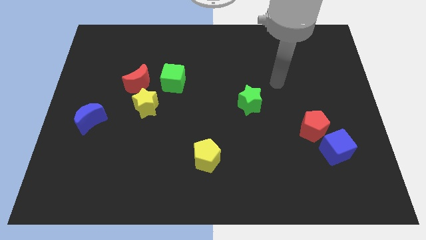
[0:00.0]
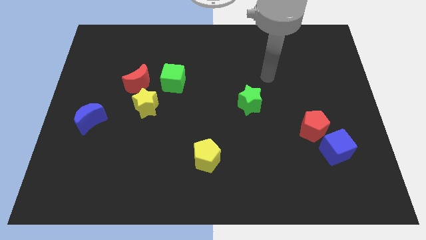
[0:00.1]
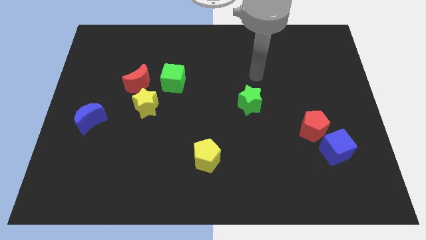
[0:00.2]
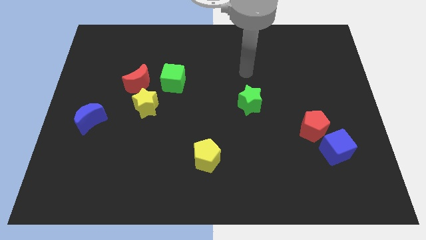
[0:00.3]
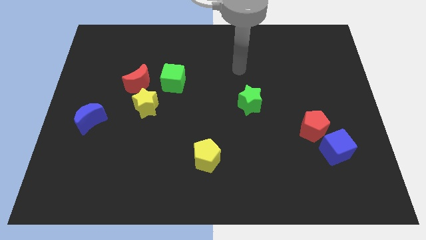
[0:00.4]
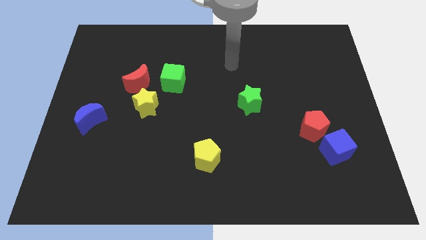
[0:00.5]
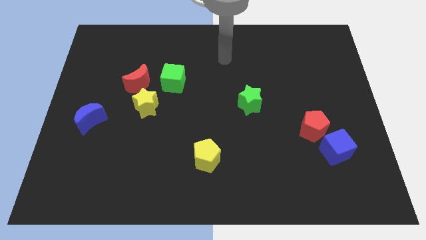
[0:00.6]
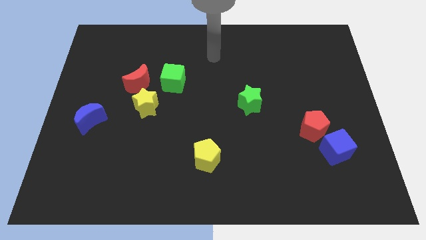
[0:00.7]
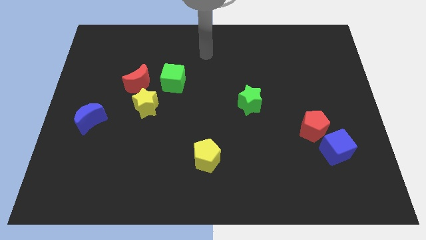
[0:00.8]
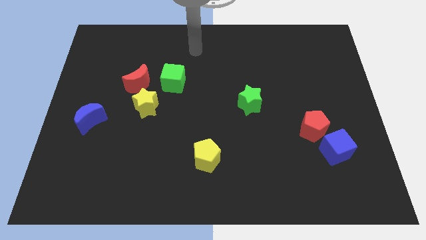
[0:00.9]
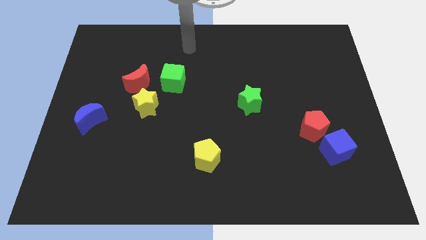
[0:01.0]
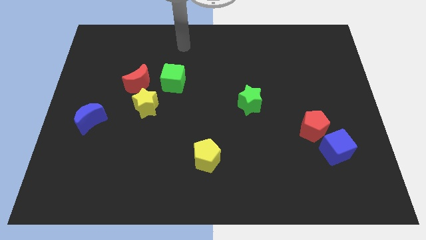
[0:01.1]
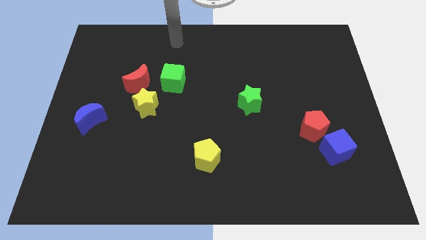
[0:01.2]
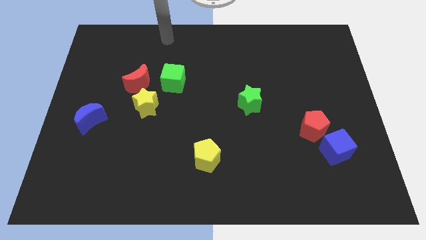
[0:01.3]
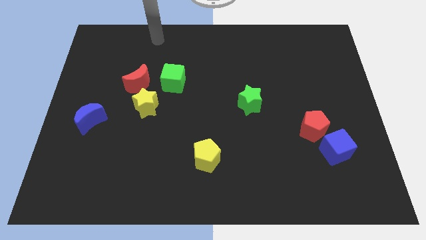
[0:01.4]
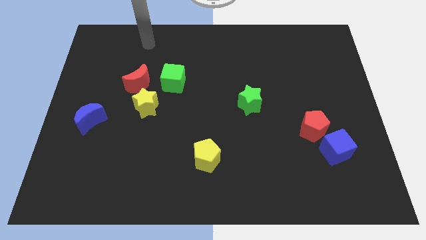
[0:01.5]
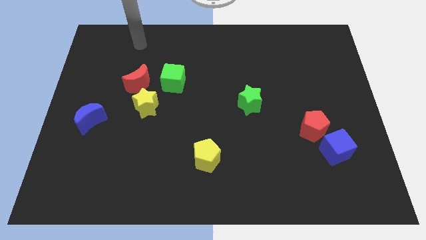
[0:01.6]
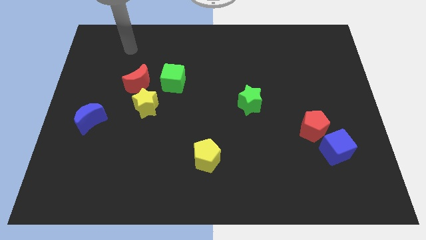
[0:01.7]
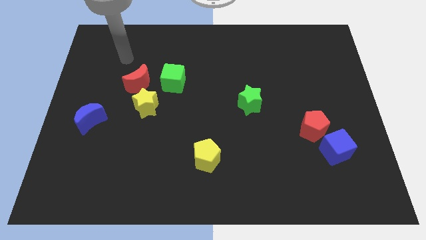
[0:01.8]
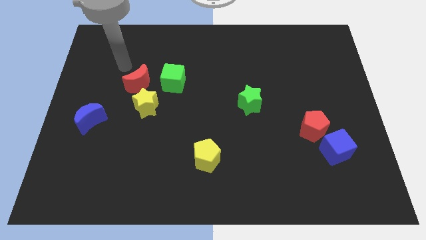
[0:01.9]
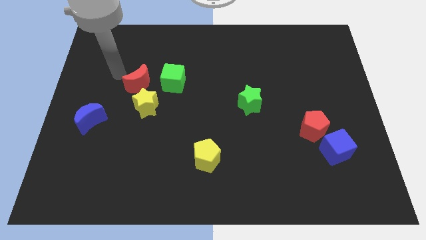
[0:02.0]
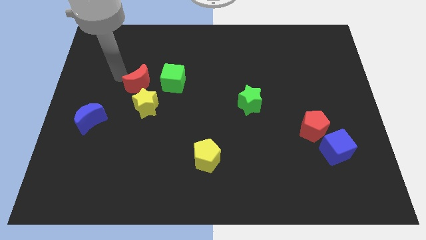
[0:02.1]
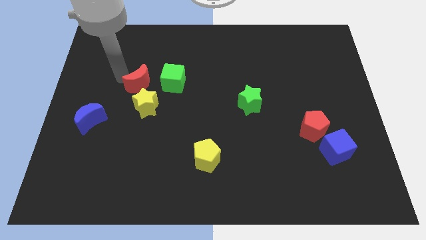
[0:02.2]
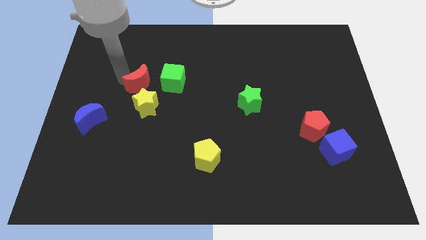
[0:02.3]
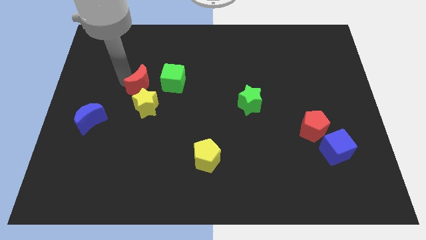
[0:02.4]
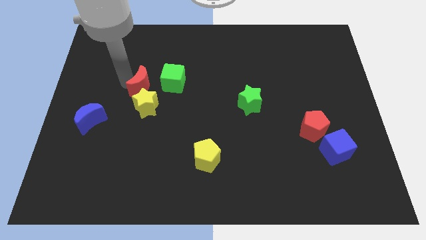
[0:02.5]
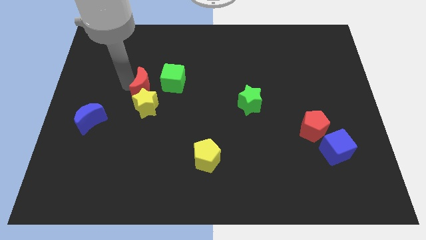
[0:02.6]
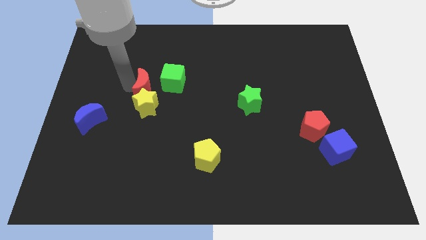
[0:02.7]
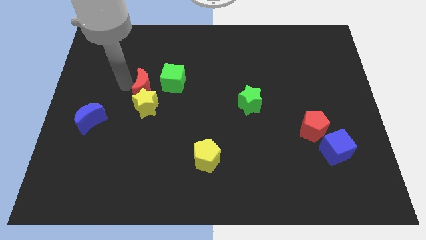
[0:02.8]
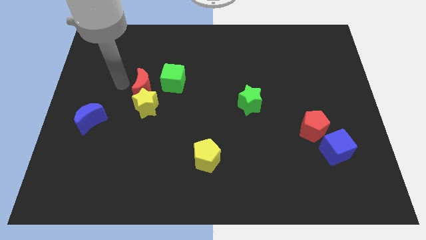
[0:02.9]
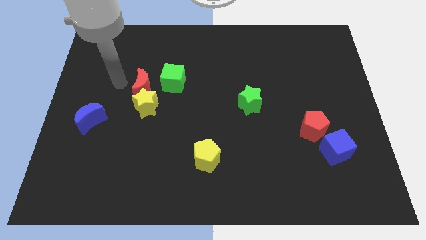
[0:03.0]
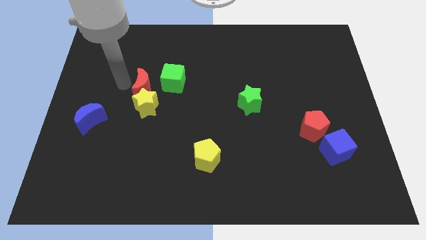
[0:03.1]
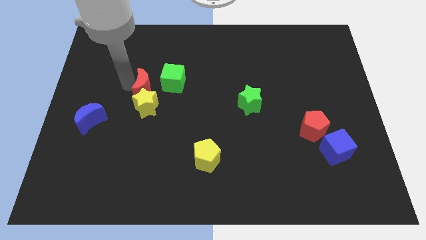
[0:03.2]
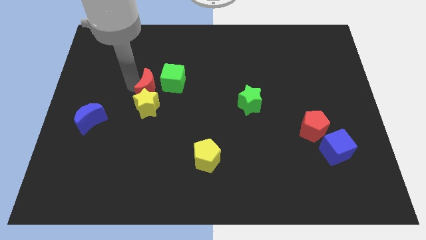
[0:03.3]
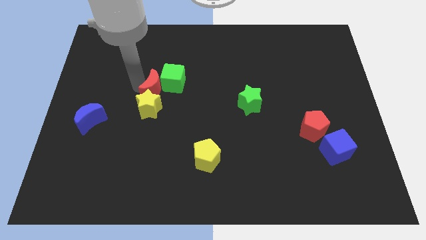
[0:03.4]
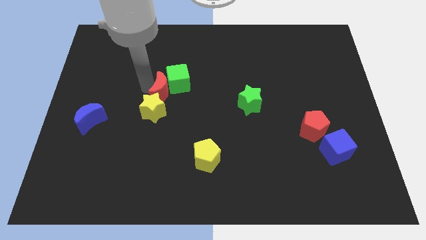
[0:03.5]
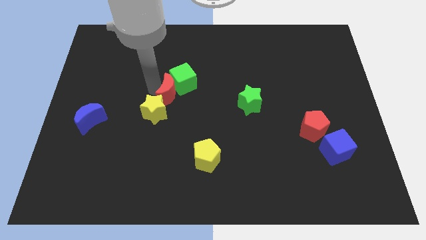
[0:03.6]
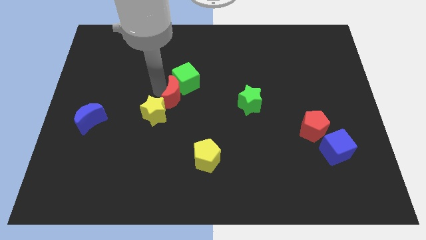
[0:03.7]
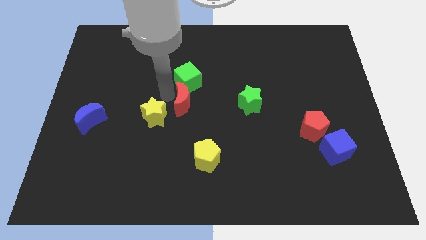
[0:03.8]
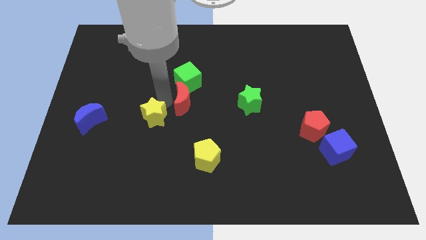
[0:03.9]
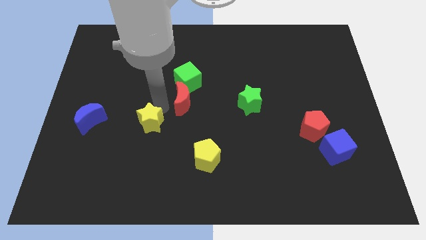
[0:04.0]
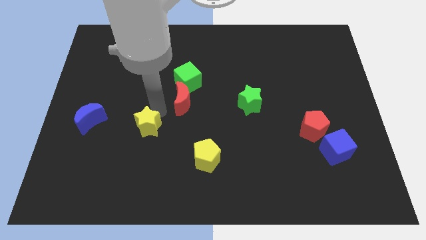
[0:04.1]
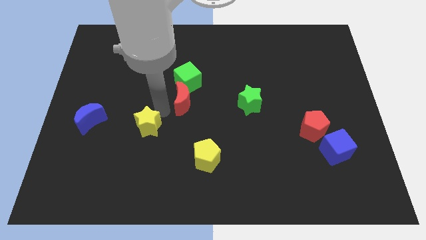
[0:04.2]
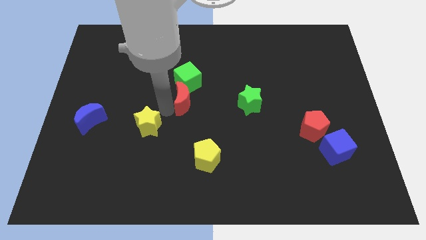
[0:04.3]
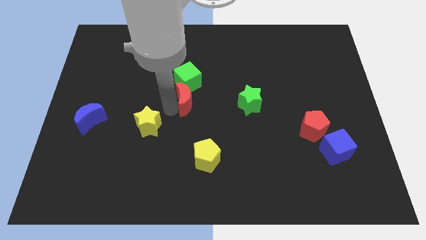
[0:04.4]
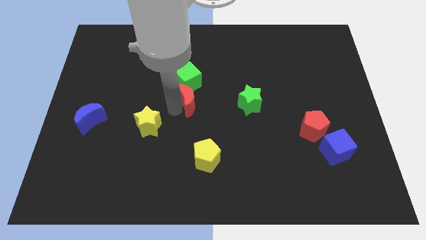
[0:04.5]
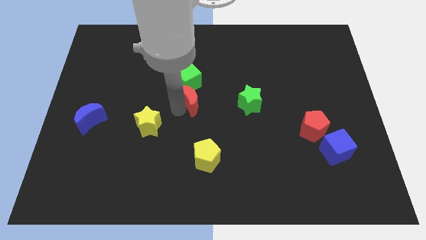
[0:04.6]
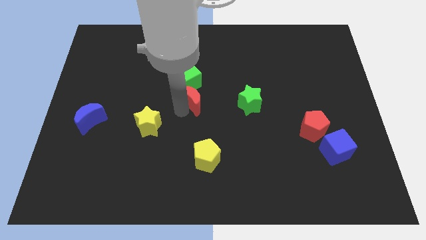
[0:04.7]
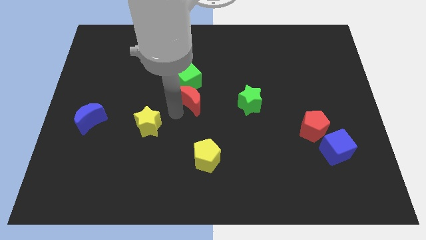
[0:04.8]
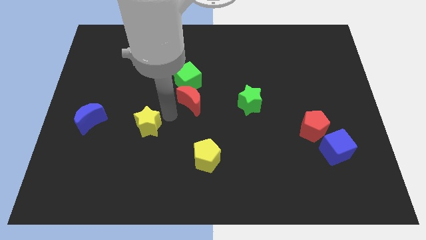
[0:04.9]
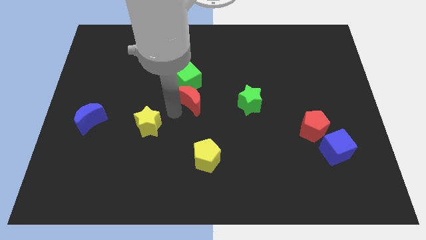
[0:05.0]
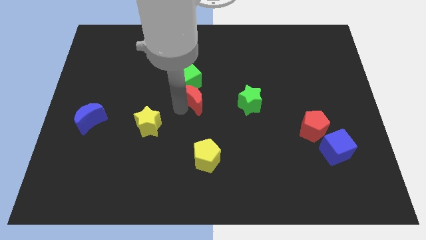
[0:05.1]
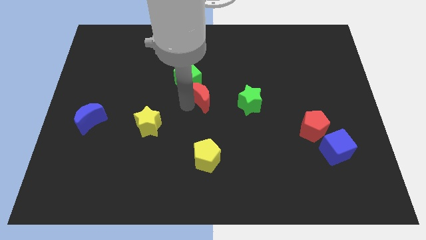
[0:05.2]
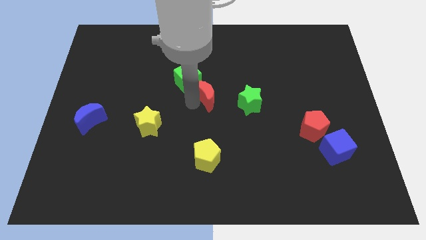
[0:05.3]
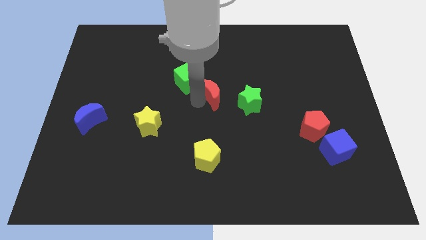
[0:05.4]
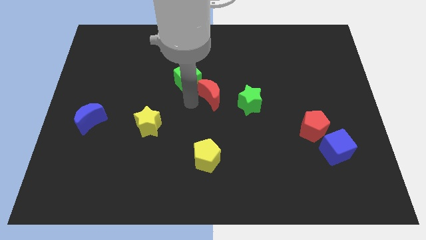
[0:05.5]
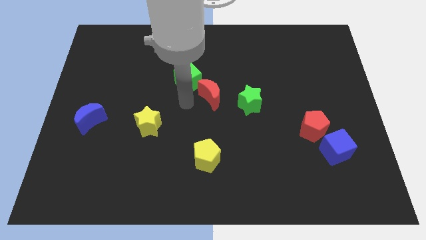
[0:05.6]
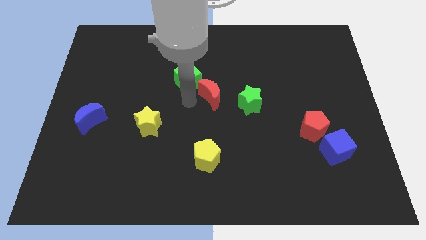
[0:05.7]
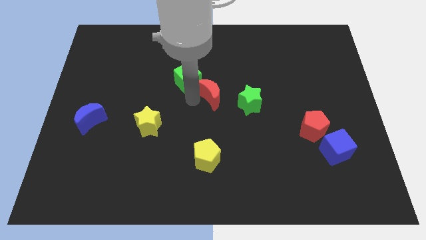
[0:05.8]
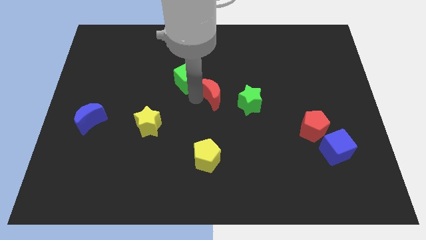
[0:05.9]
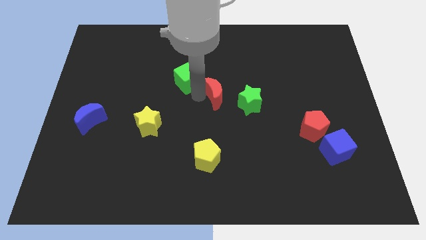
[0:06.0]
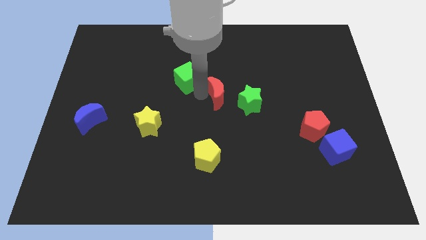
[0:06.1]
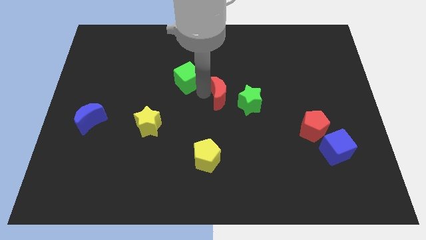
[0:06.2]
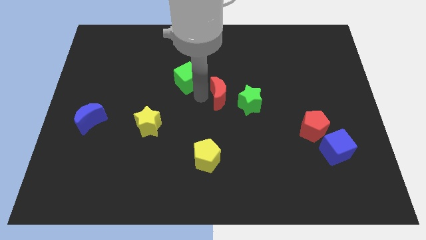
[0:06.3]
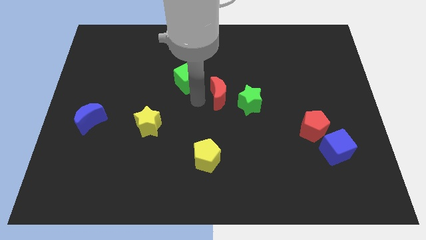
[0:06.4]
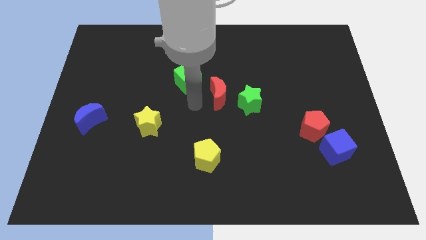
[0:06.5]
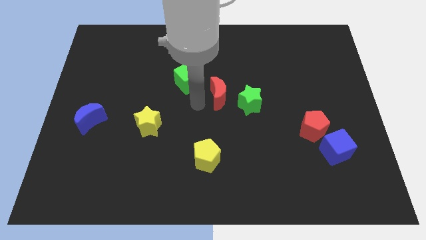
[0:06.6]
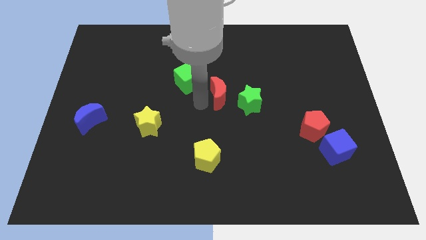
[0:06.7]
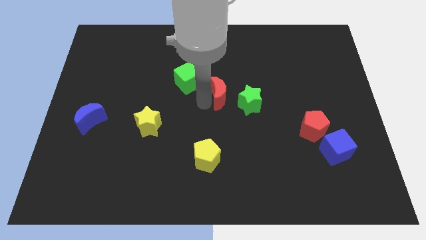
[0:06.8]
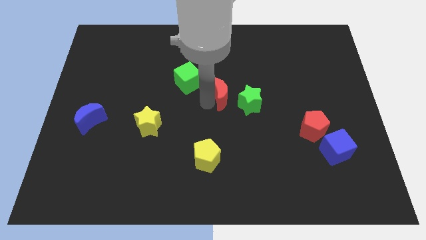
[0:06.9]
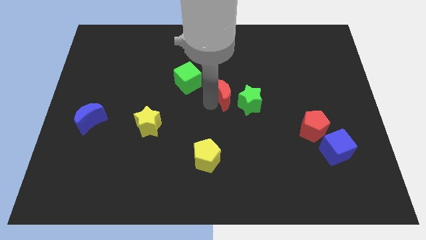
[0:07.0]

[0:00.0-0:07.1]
move the red moon to the right

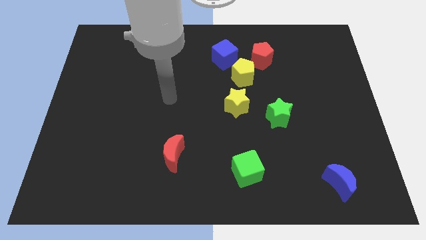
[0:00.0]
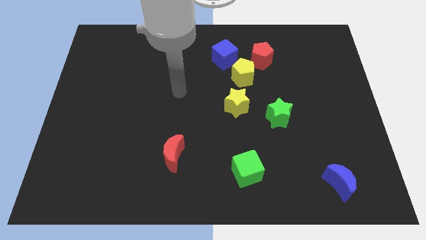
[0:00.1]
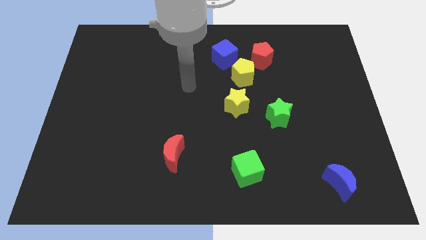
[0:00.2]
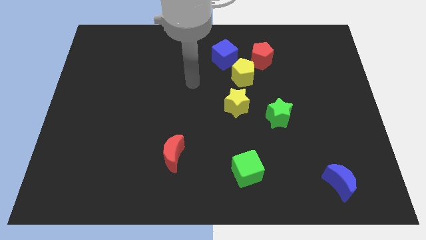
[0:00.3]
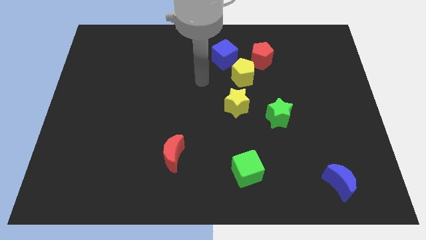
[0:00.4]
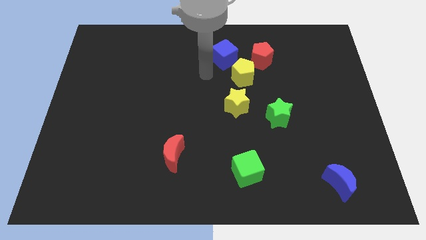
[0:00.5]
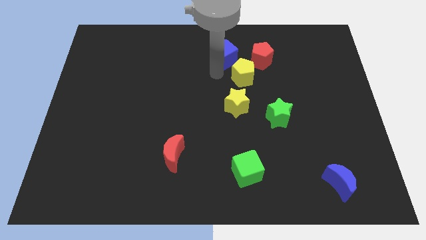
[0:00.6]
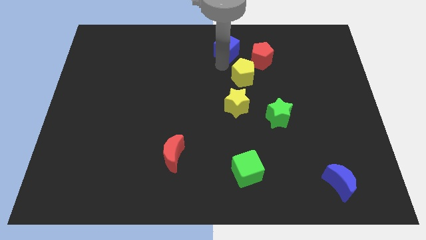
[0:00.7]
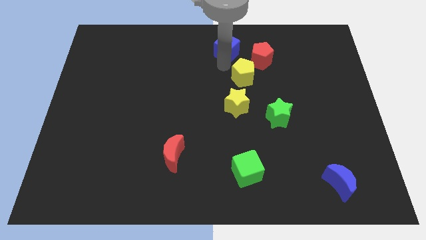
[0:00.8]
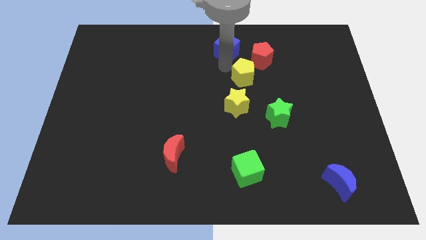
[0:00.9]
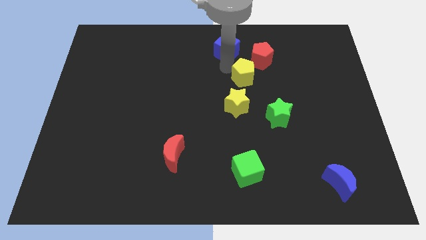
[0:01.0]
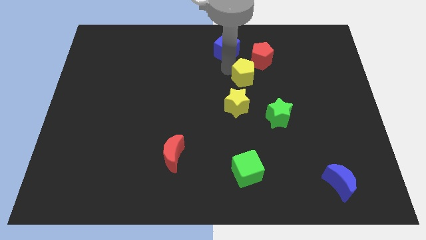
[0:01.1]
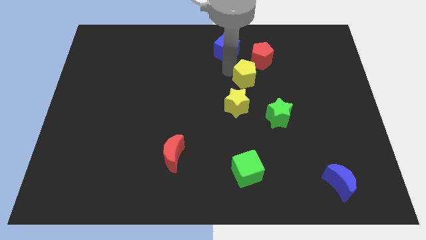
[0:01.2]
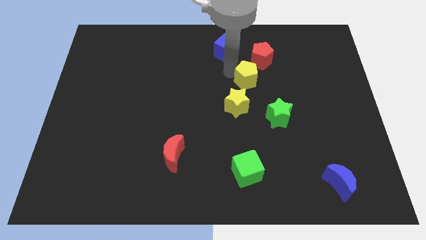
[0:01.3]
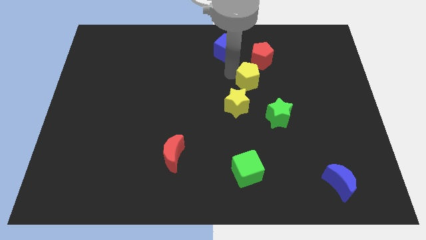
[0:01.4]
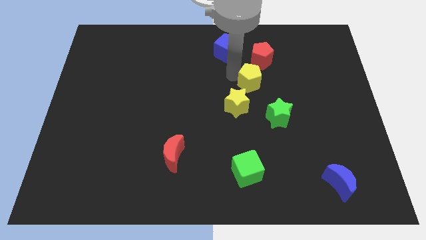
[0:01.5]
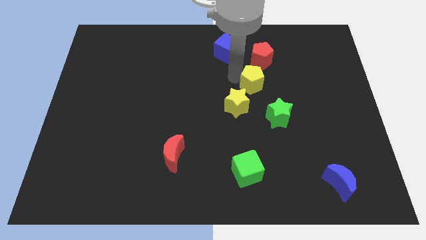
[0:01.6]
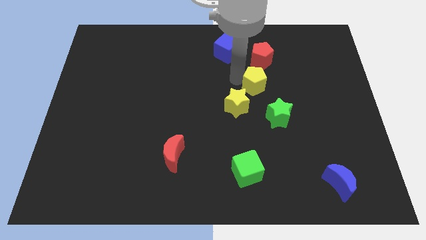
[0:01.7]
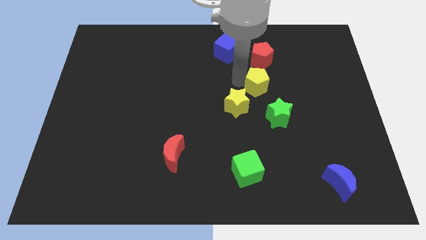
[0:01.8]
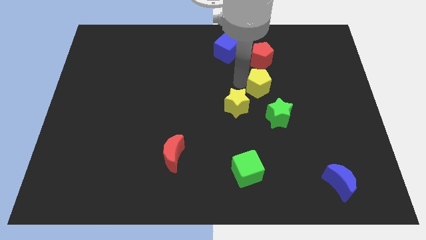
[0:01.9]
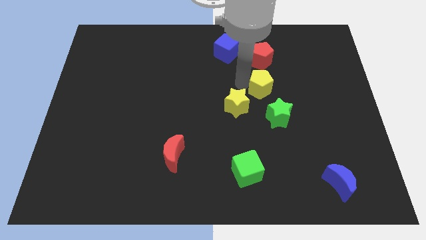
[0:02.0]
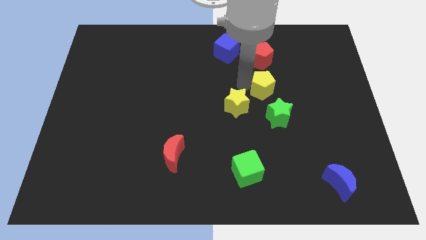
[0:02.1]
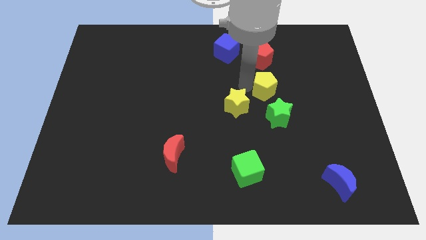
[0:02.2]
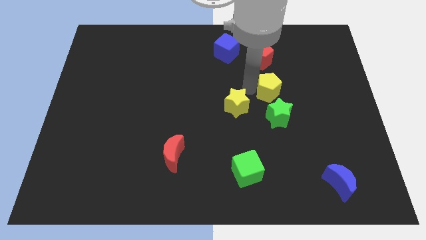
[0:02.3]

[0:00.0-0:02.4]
push the yellow pentagon a little diagonally downwards and to the right
